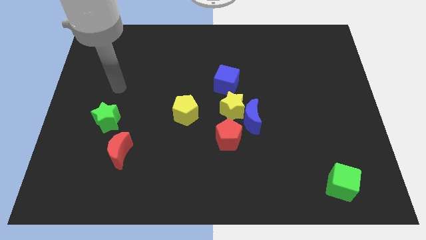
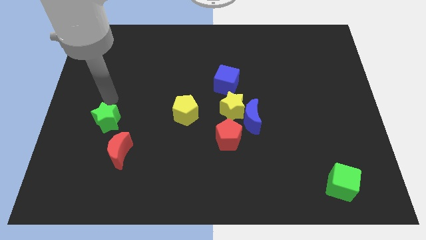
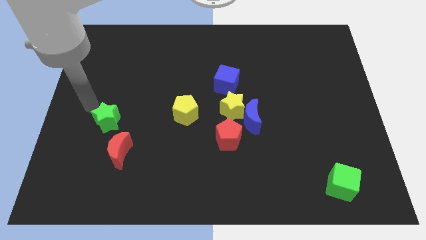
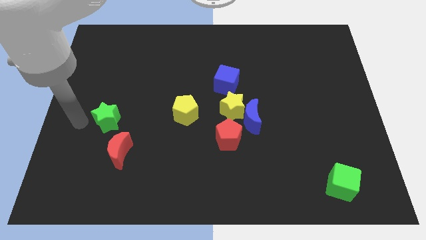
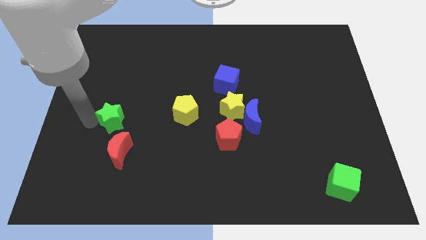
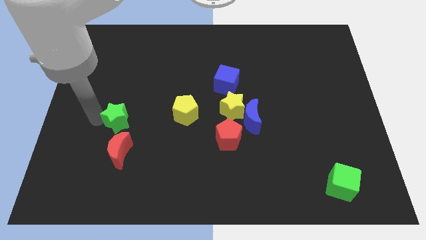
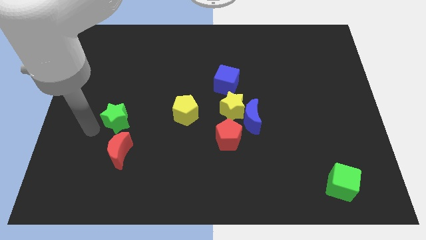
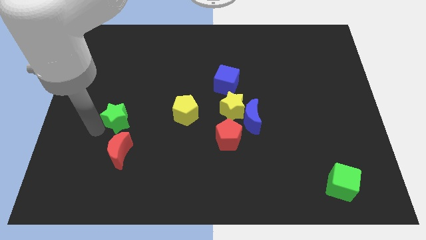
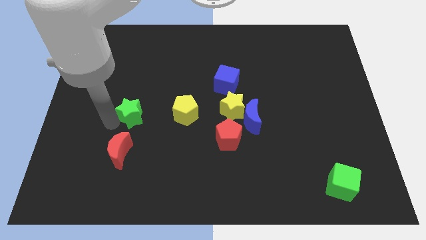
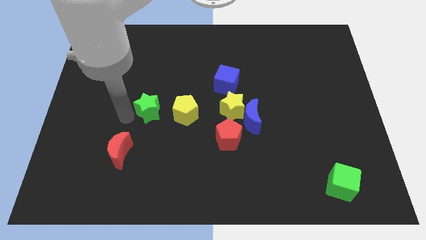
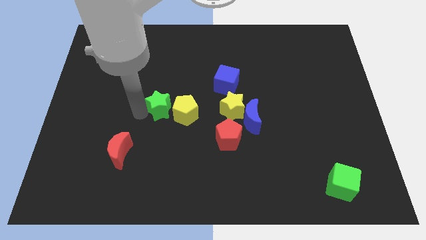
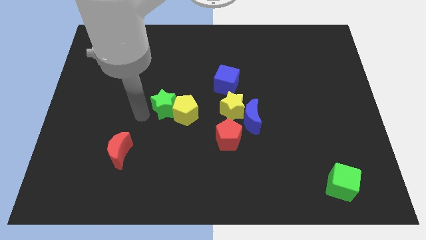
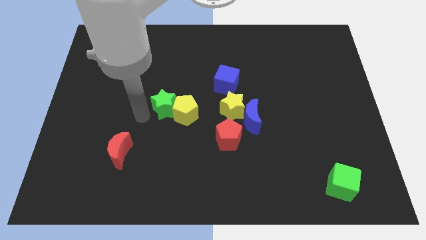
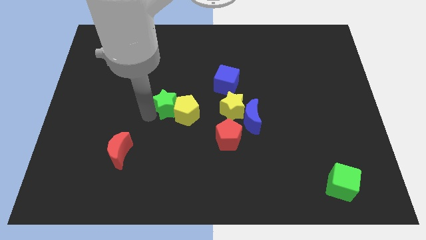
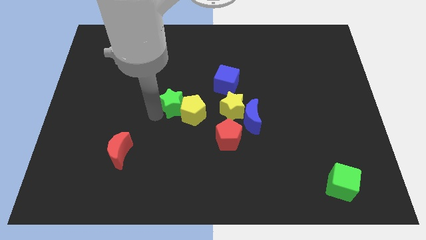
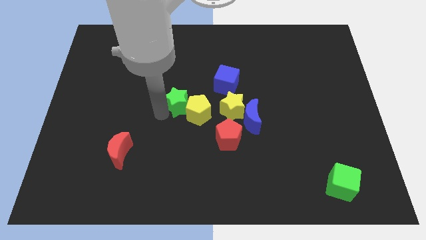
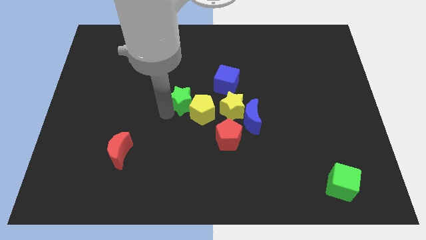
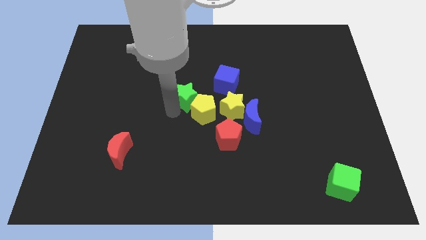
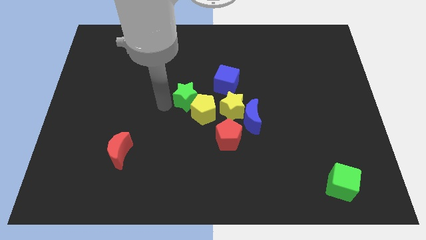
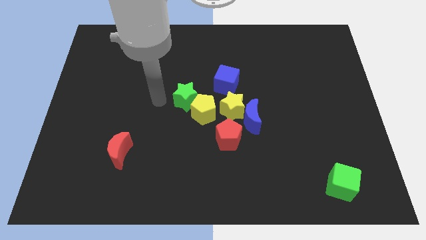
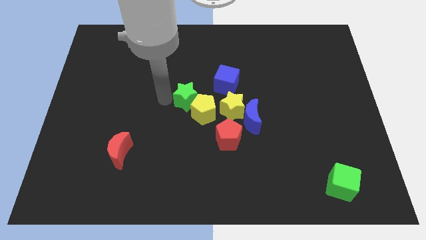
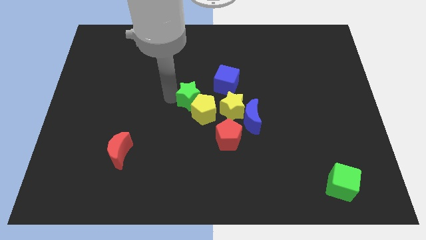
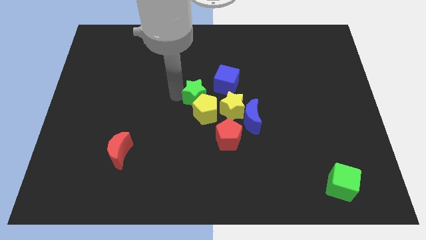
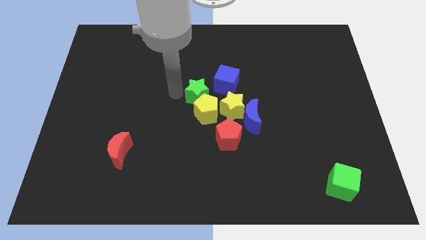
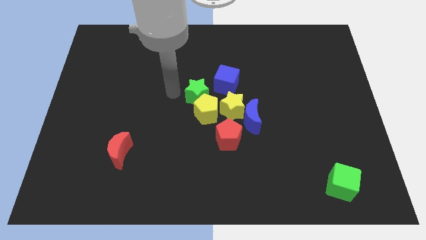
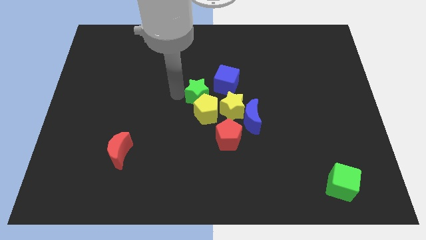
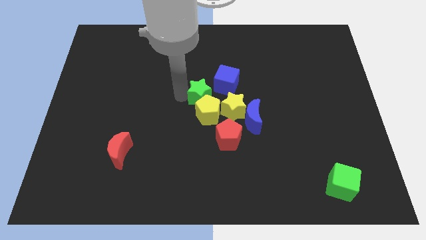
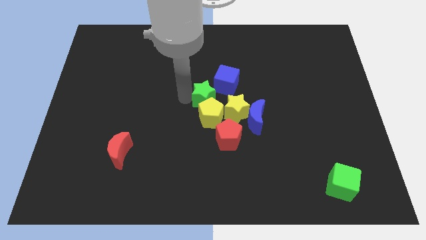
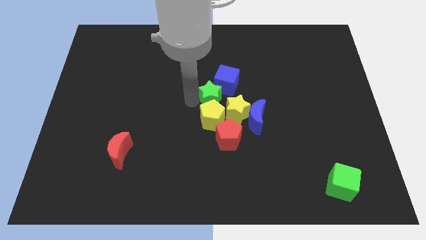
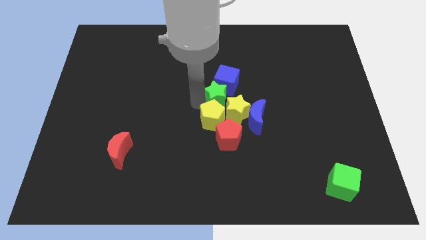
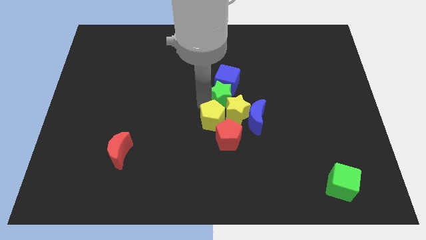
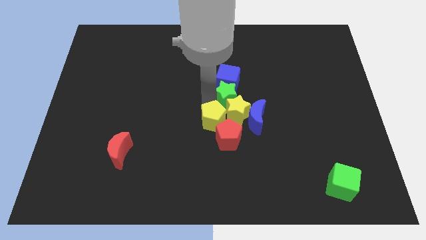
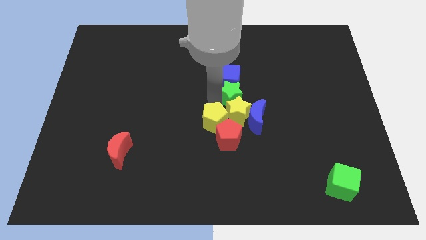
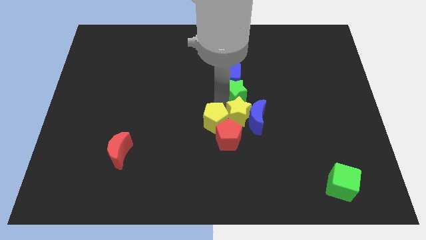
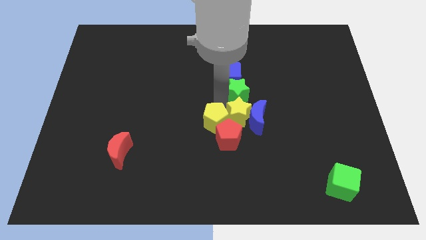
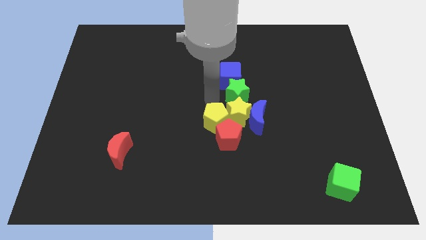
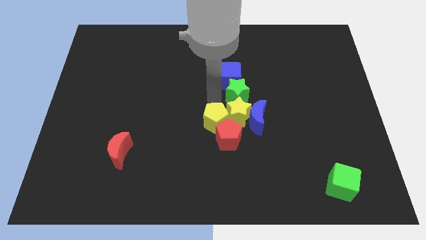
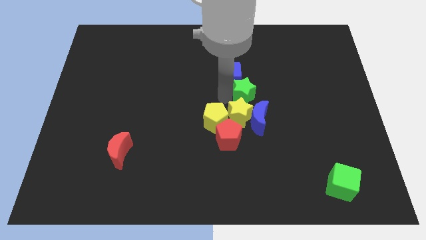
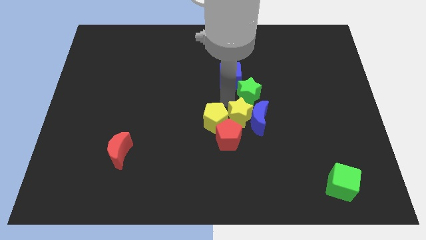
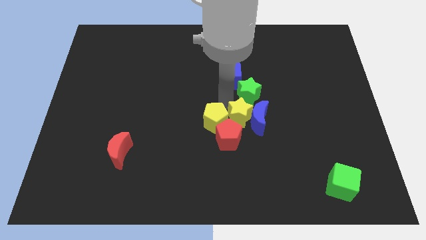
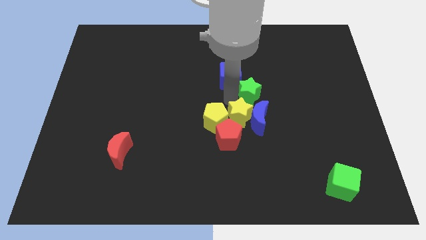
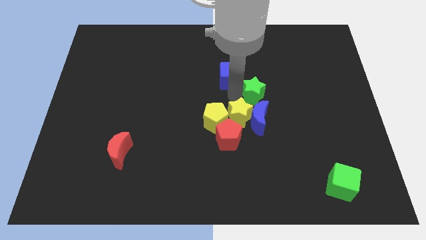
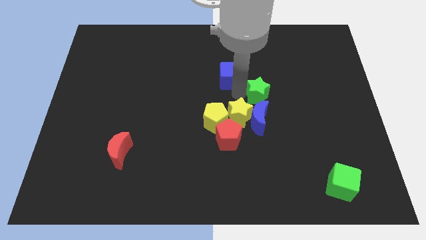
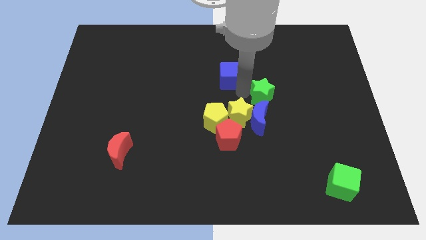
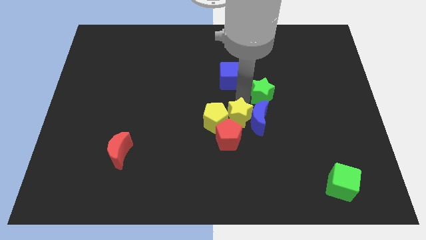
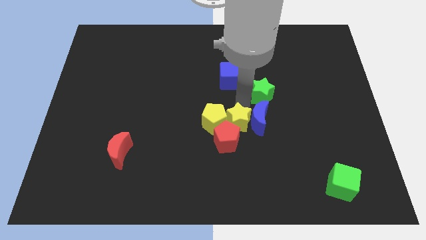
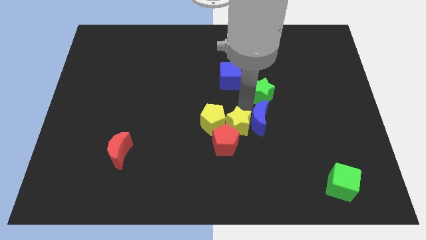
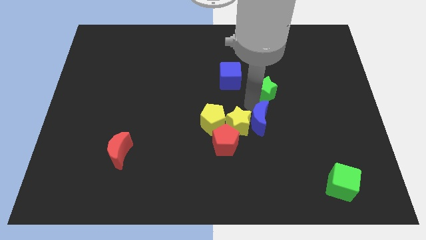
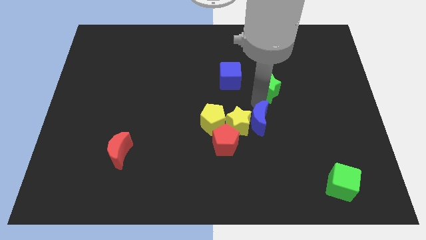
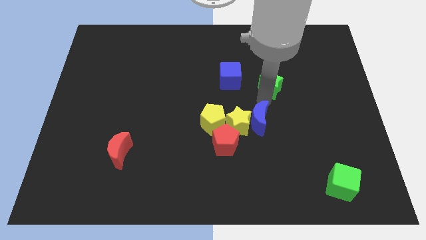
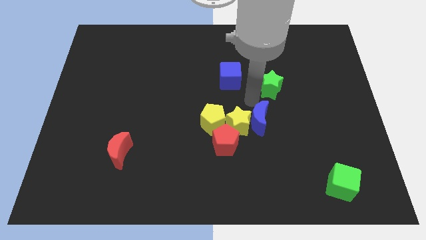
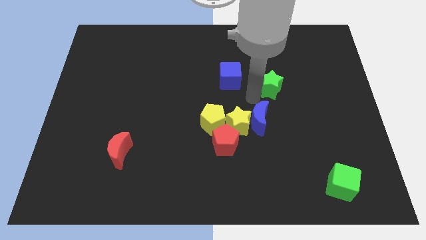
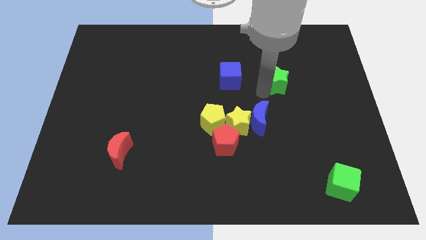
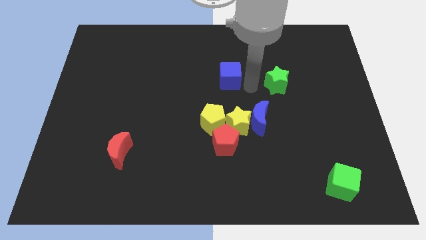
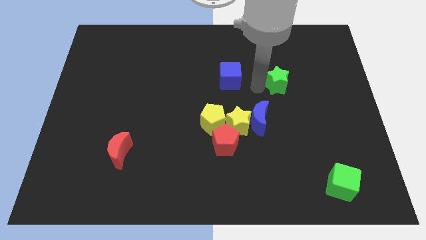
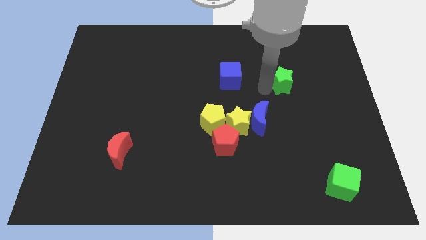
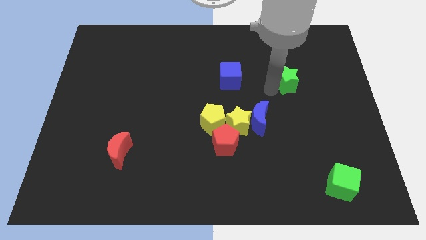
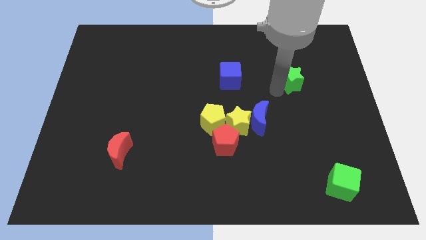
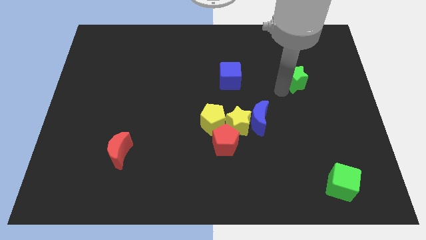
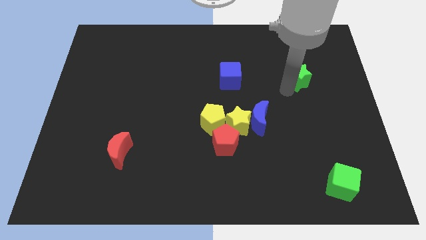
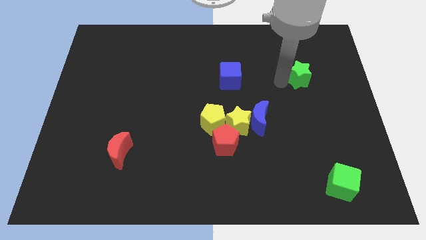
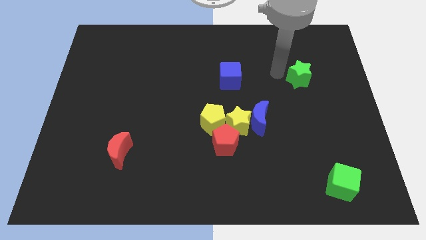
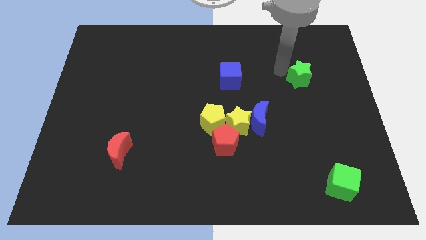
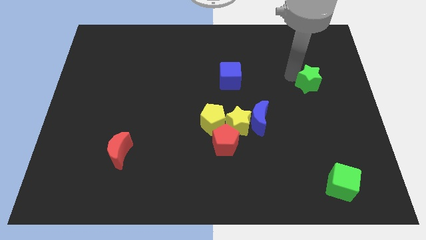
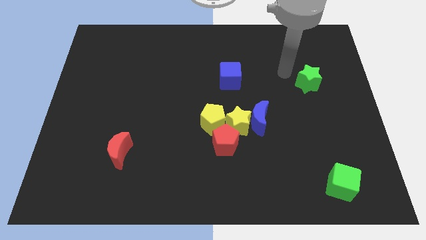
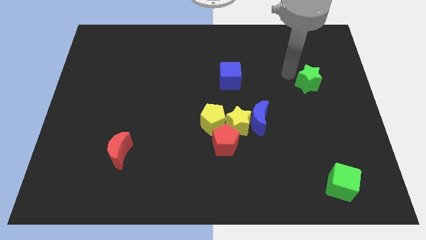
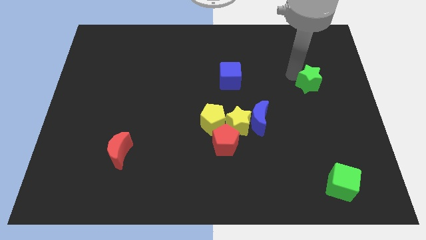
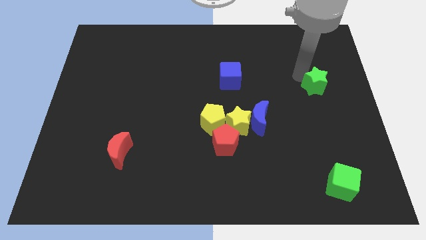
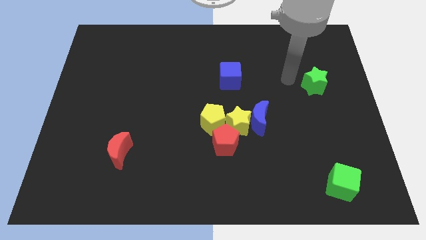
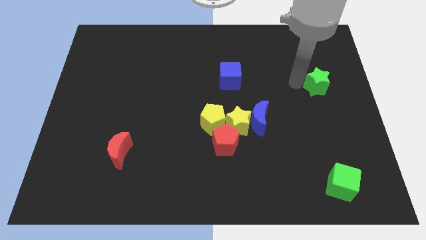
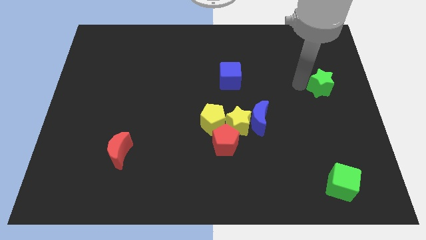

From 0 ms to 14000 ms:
slide the green star to the right side of the board
